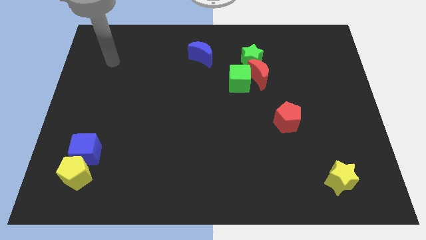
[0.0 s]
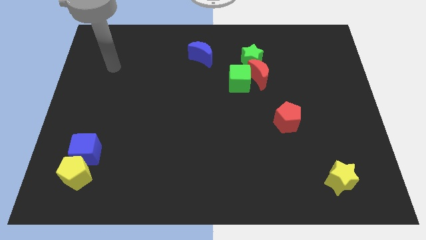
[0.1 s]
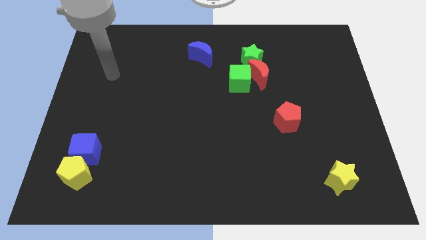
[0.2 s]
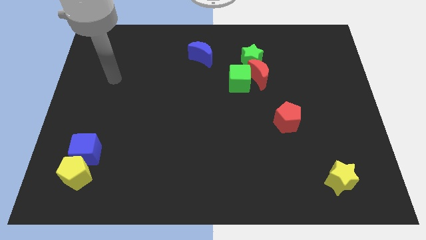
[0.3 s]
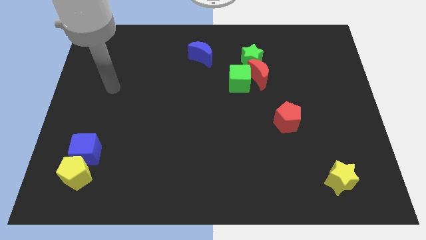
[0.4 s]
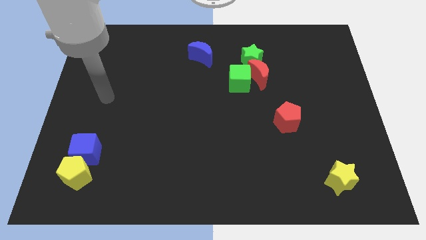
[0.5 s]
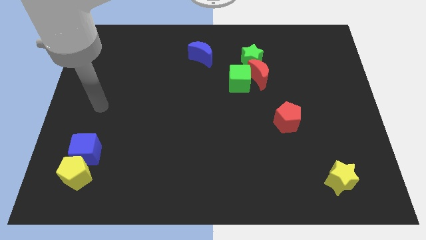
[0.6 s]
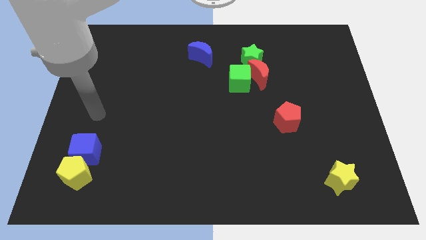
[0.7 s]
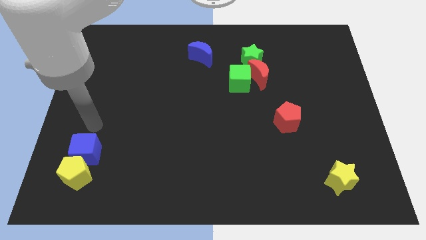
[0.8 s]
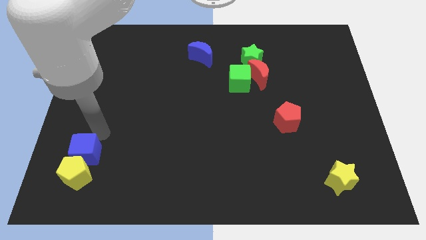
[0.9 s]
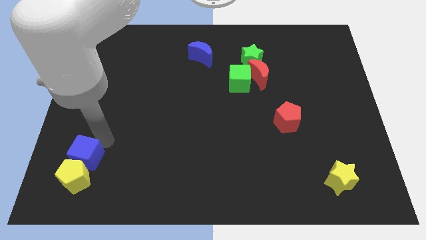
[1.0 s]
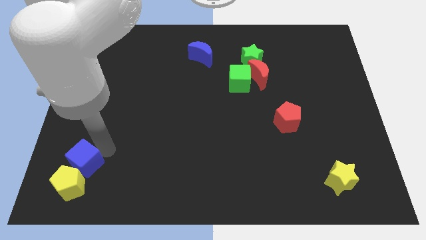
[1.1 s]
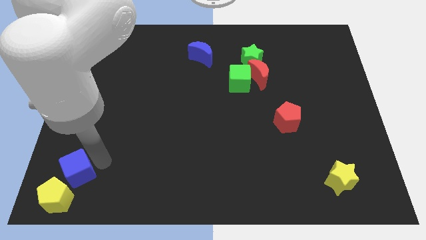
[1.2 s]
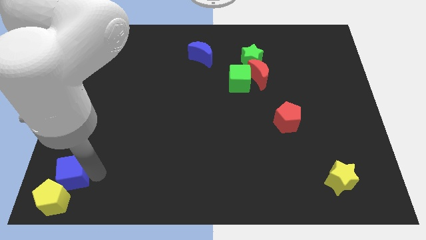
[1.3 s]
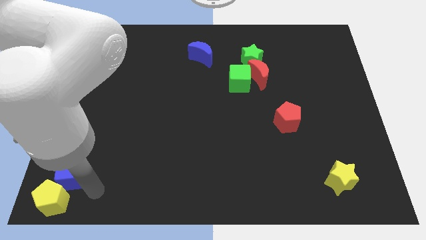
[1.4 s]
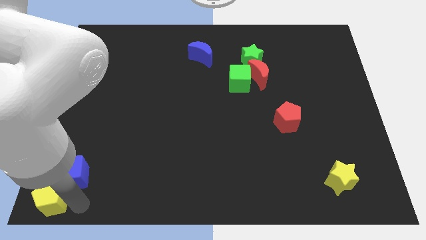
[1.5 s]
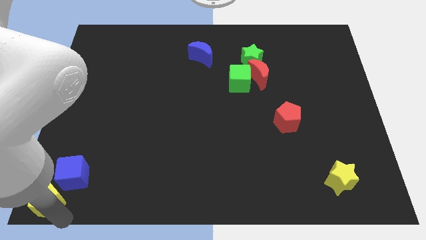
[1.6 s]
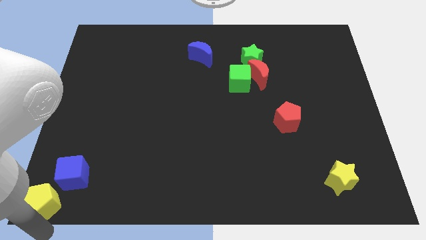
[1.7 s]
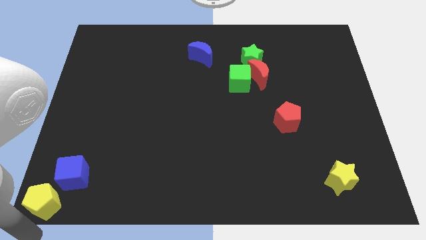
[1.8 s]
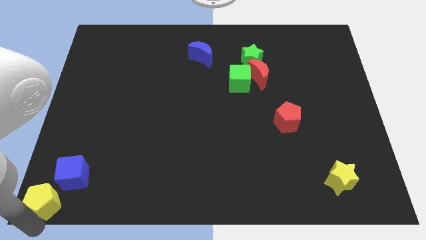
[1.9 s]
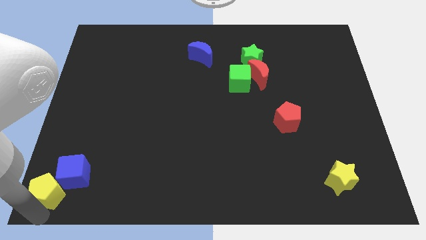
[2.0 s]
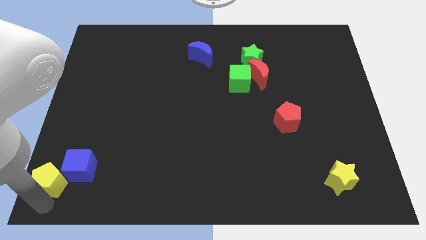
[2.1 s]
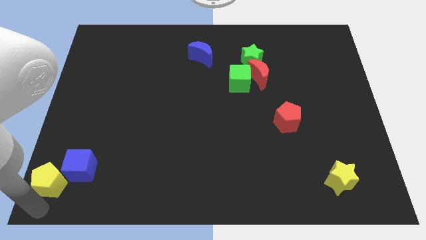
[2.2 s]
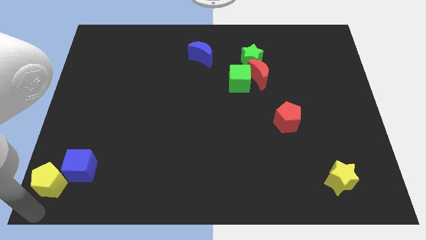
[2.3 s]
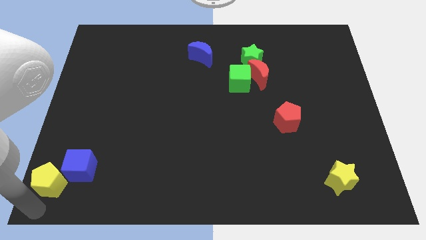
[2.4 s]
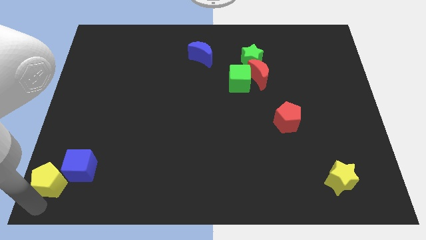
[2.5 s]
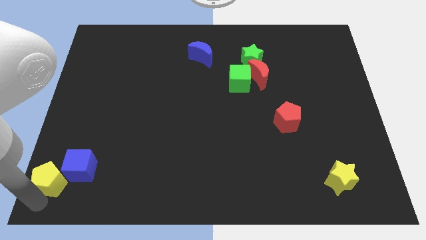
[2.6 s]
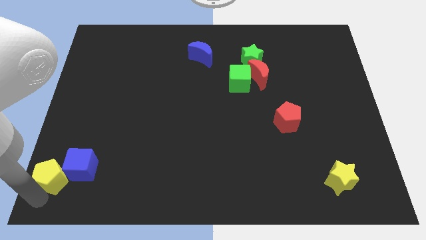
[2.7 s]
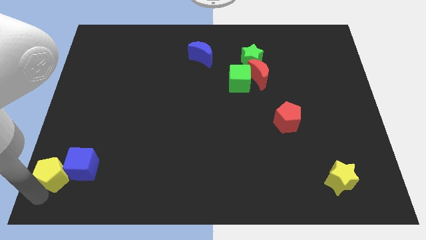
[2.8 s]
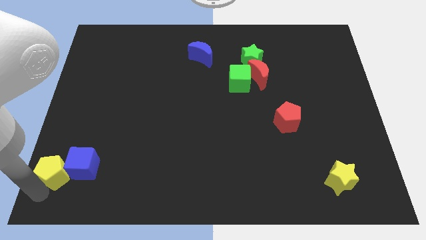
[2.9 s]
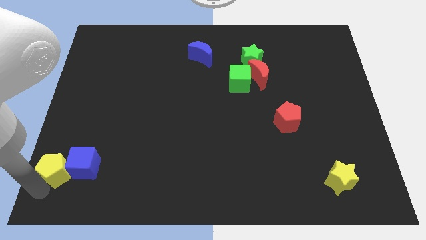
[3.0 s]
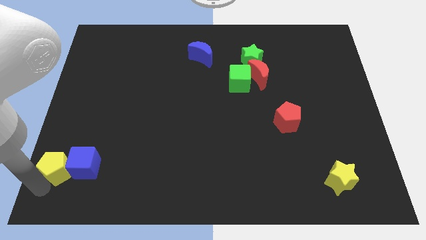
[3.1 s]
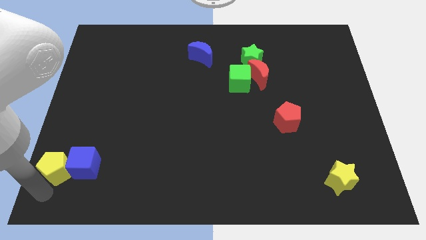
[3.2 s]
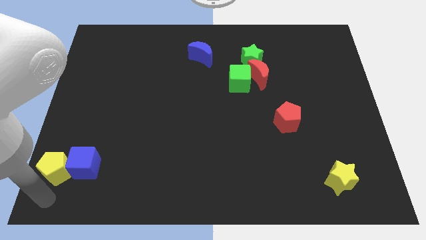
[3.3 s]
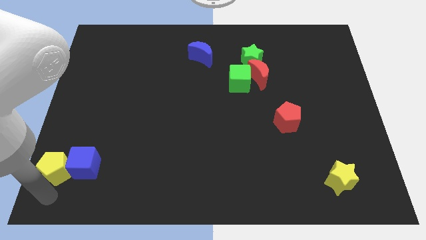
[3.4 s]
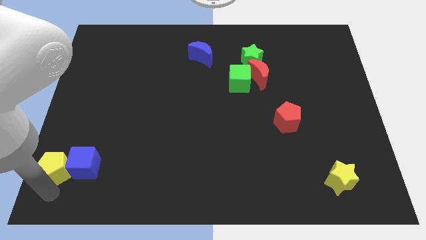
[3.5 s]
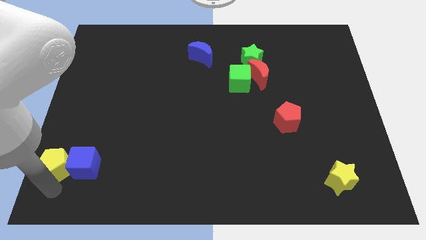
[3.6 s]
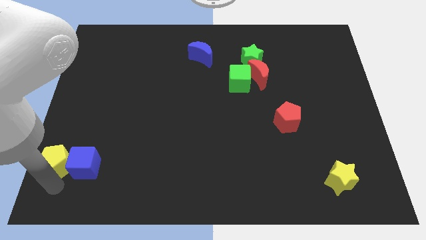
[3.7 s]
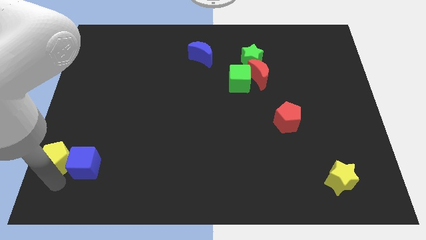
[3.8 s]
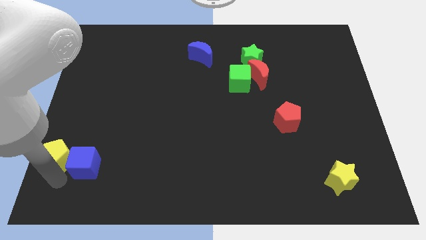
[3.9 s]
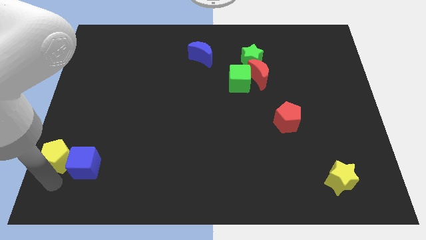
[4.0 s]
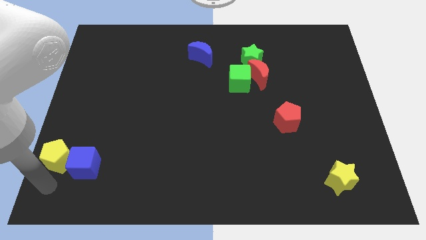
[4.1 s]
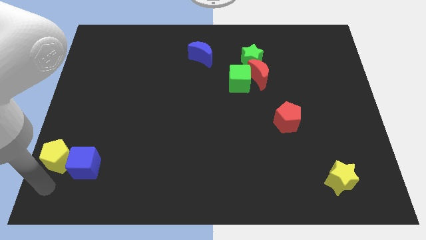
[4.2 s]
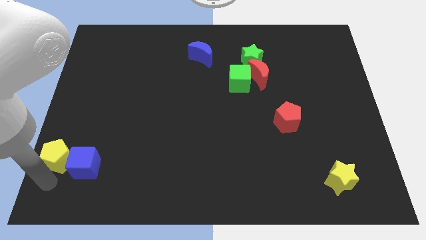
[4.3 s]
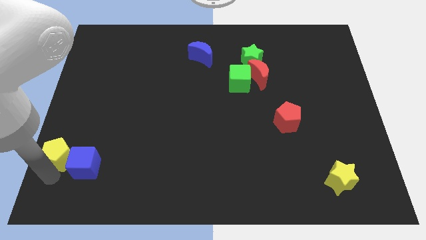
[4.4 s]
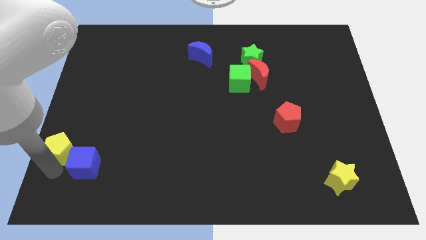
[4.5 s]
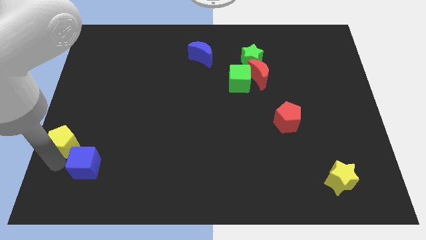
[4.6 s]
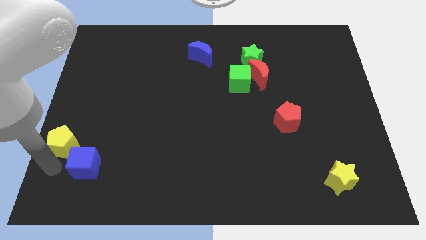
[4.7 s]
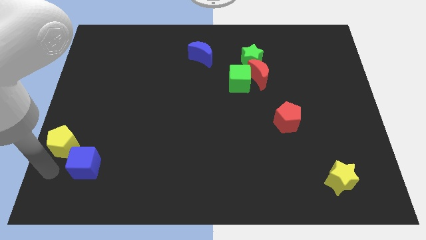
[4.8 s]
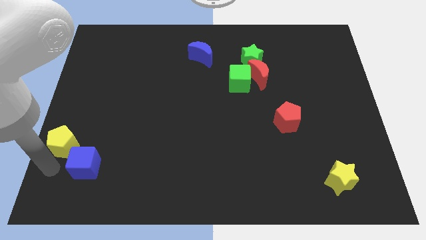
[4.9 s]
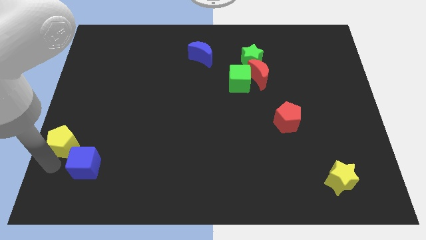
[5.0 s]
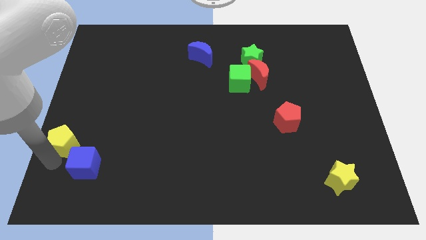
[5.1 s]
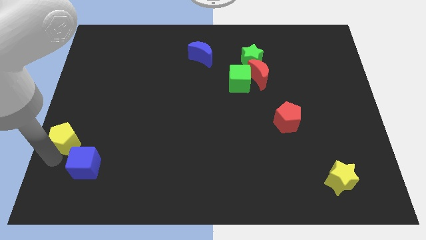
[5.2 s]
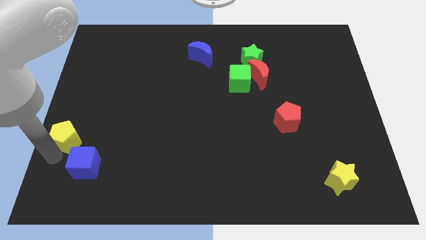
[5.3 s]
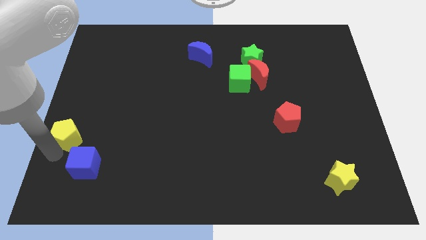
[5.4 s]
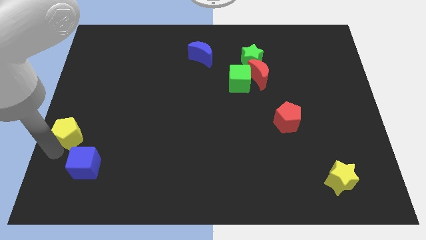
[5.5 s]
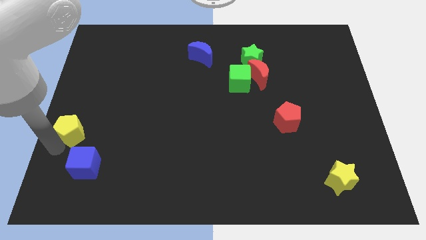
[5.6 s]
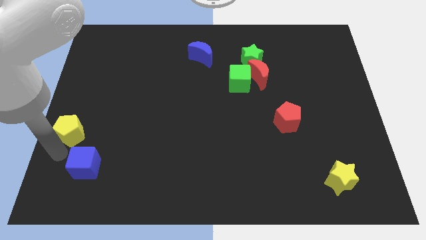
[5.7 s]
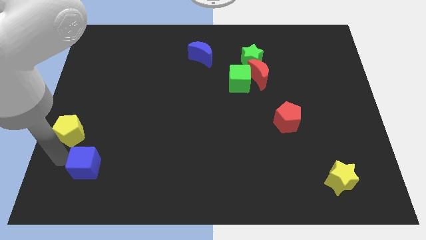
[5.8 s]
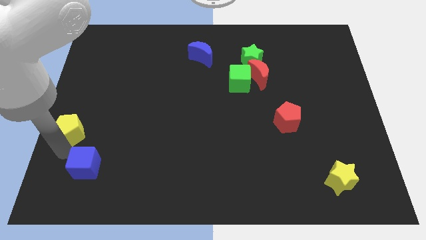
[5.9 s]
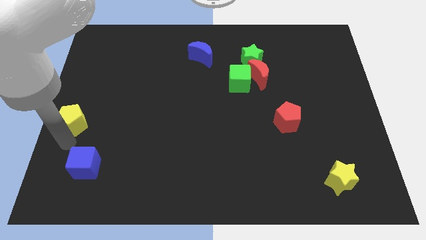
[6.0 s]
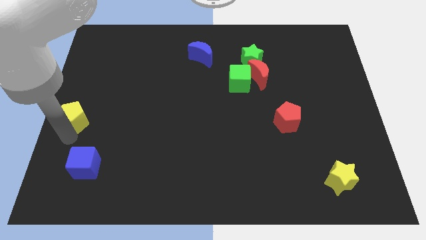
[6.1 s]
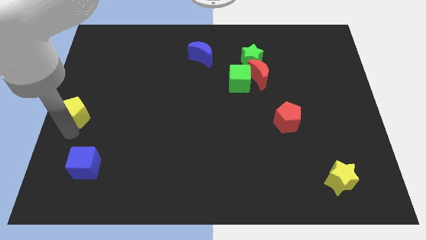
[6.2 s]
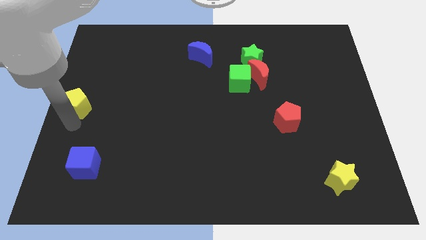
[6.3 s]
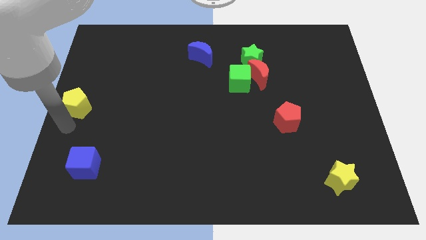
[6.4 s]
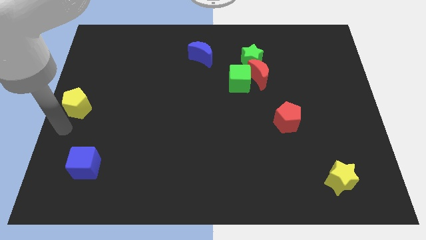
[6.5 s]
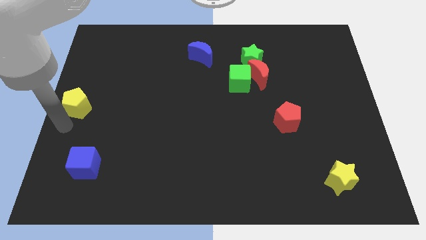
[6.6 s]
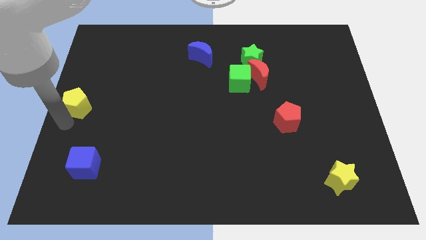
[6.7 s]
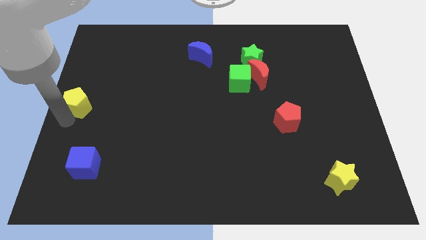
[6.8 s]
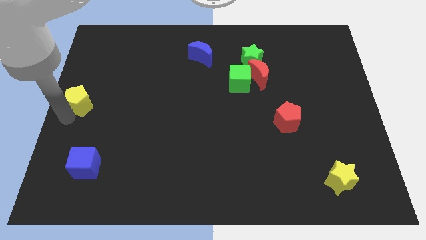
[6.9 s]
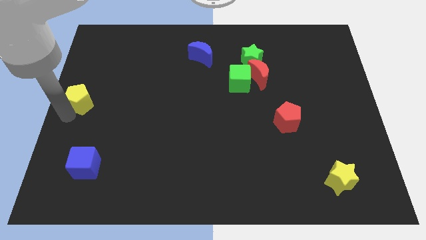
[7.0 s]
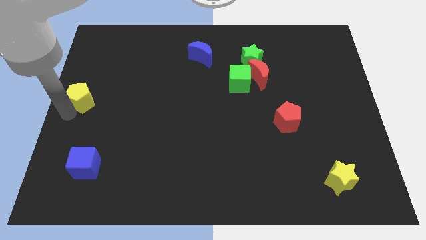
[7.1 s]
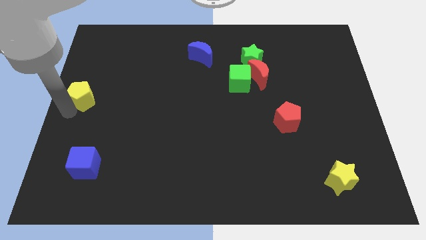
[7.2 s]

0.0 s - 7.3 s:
slide the yellow pentagon upwards

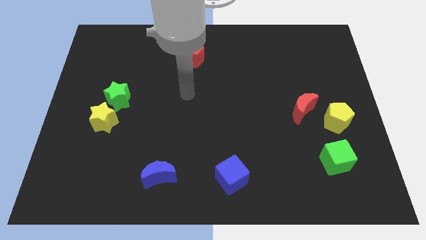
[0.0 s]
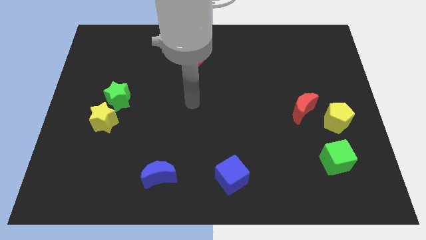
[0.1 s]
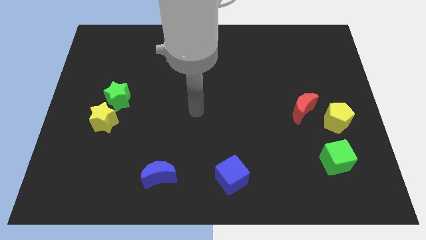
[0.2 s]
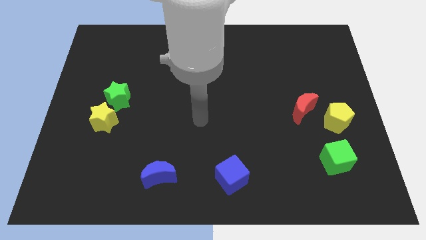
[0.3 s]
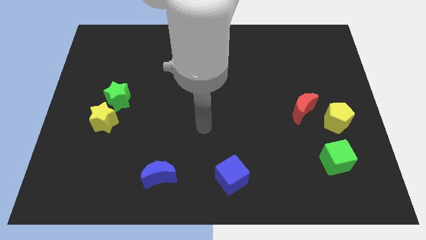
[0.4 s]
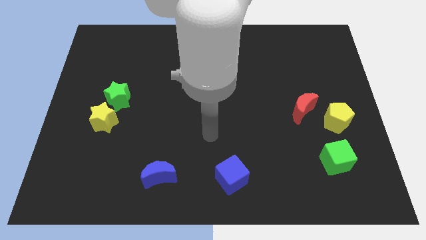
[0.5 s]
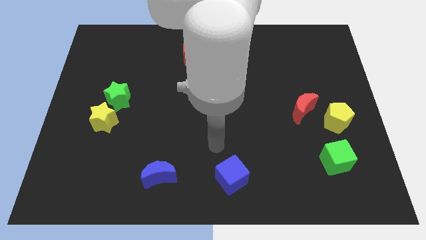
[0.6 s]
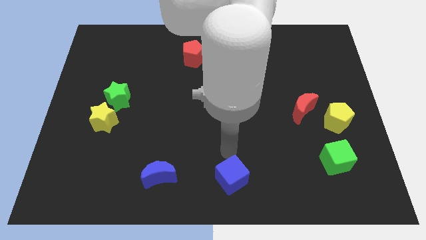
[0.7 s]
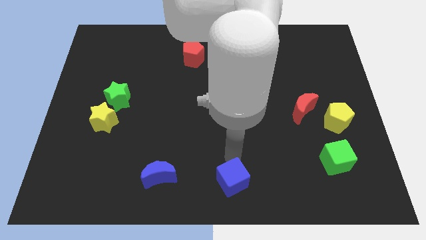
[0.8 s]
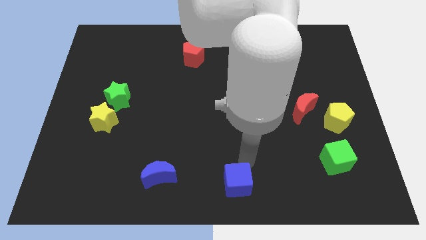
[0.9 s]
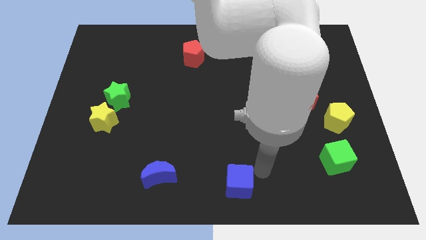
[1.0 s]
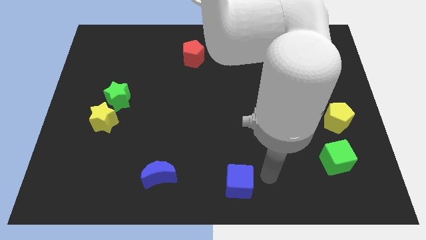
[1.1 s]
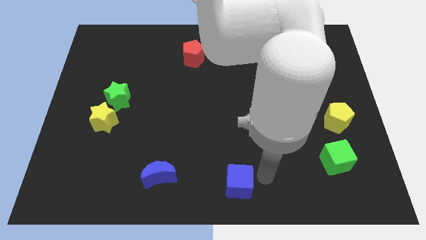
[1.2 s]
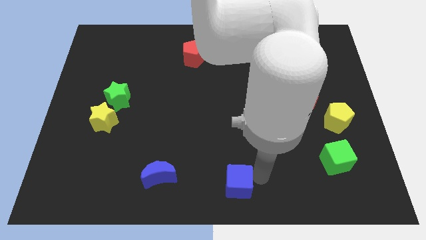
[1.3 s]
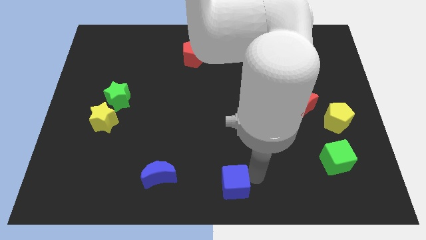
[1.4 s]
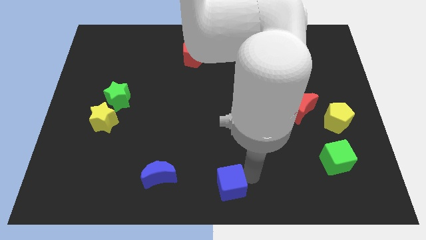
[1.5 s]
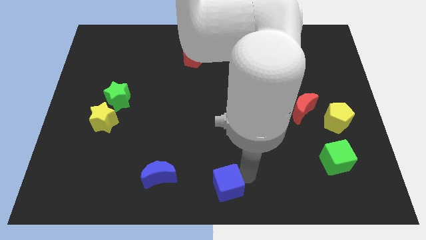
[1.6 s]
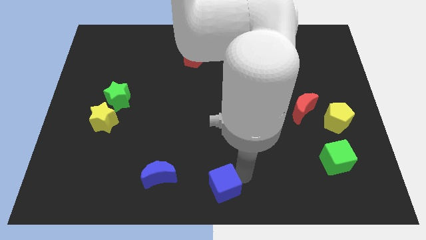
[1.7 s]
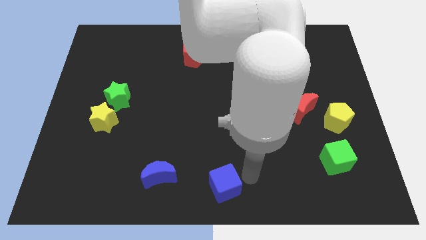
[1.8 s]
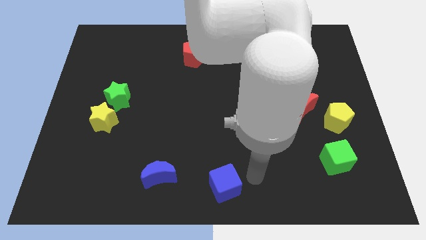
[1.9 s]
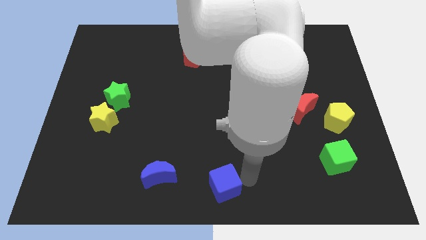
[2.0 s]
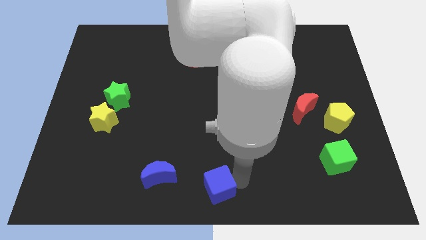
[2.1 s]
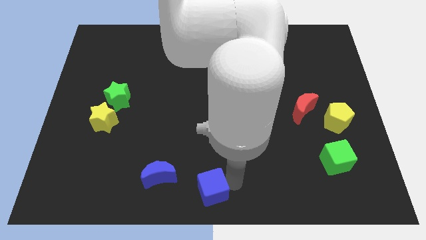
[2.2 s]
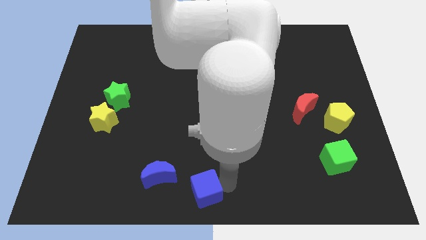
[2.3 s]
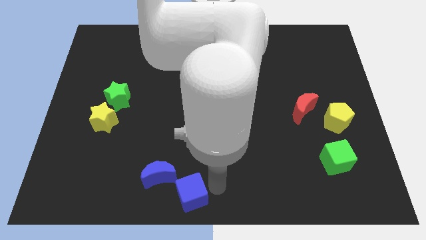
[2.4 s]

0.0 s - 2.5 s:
slightly push the blue cube to the left
